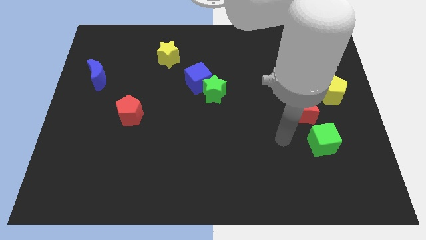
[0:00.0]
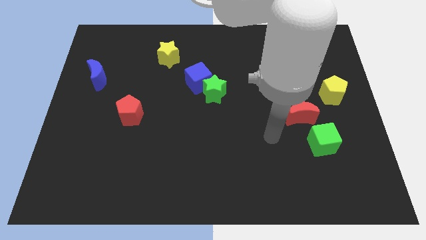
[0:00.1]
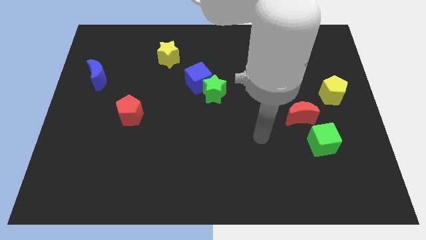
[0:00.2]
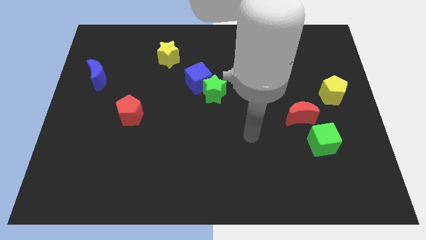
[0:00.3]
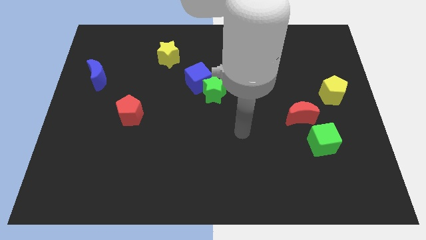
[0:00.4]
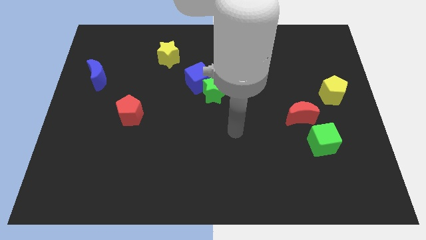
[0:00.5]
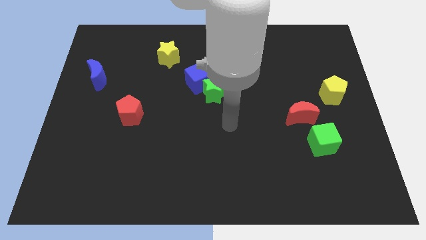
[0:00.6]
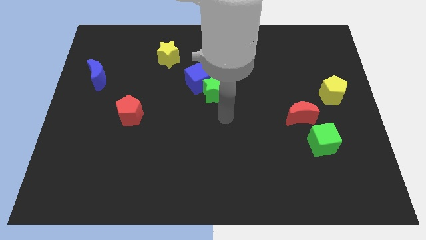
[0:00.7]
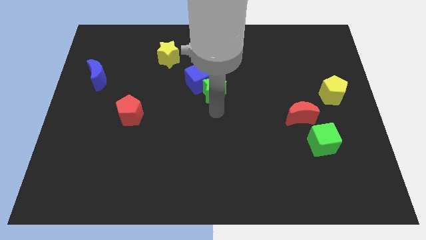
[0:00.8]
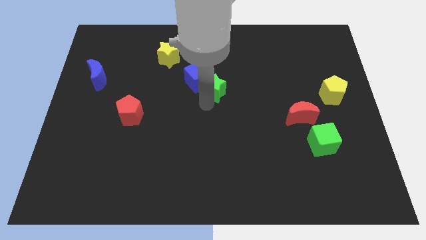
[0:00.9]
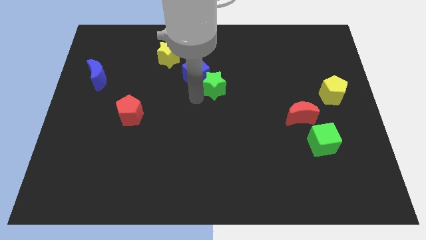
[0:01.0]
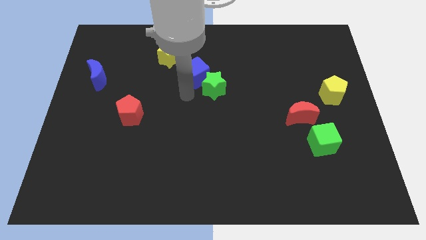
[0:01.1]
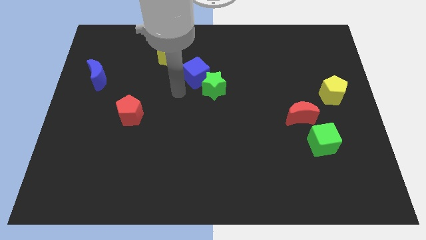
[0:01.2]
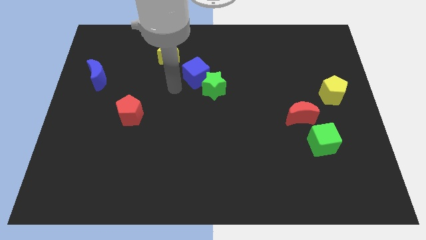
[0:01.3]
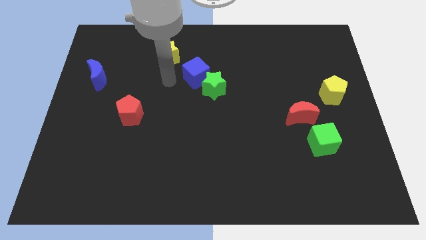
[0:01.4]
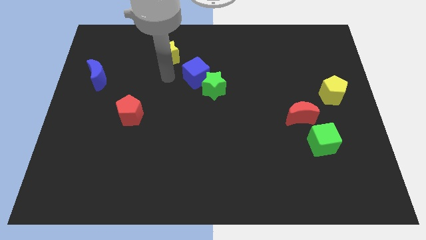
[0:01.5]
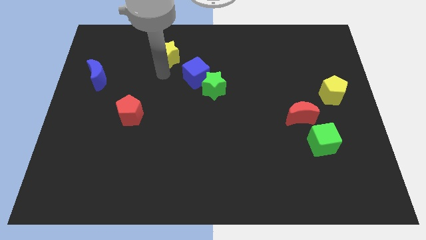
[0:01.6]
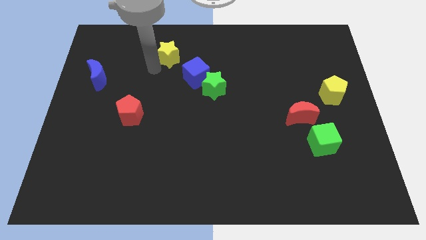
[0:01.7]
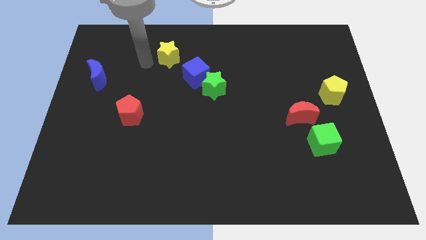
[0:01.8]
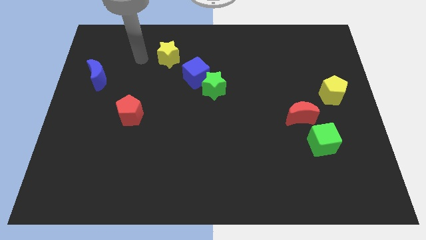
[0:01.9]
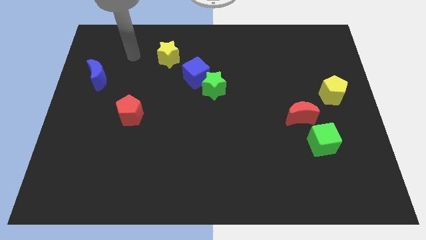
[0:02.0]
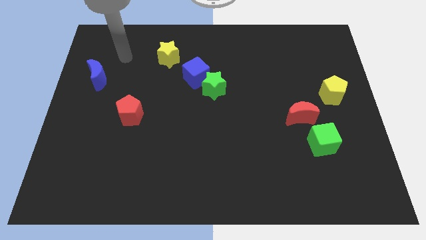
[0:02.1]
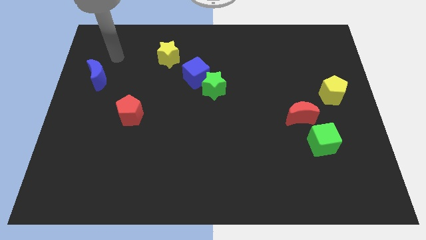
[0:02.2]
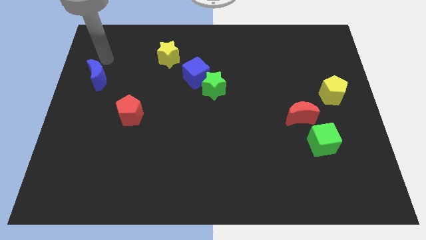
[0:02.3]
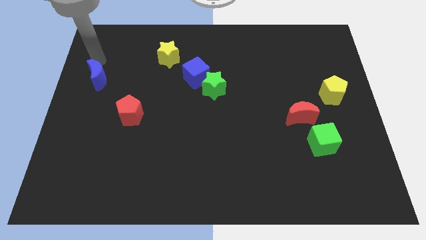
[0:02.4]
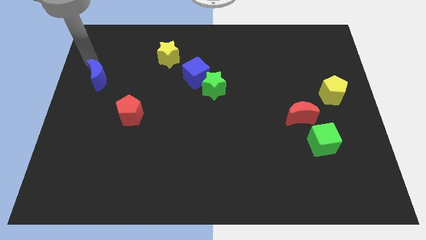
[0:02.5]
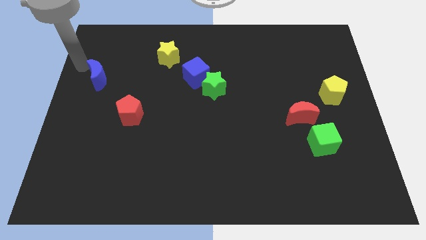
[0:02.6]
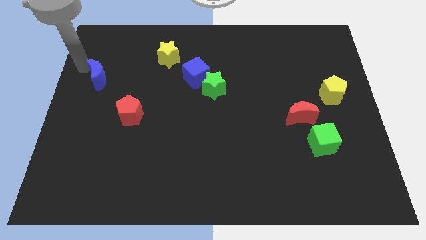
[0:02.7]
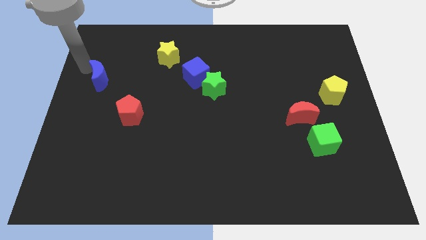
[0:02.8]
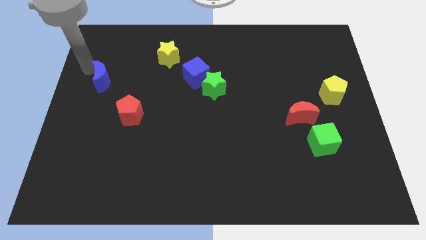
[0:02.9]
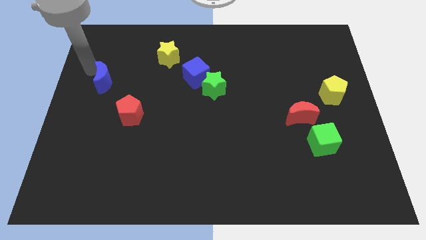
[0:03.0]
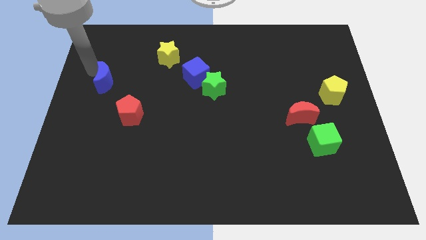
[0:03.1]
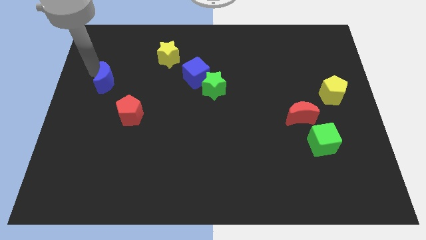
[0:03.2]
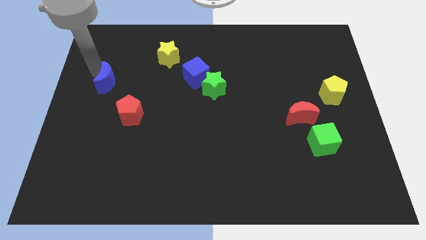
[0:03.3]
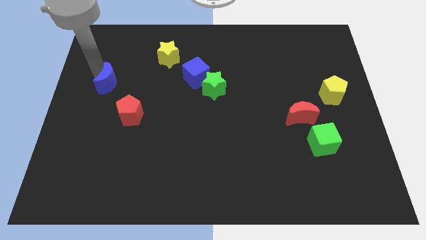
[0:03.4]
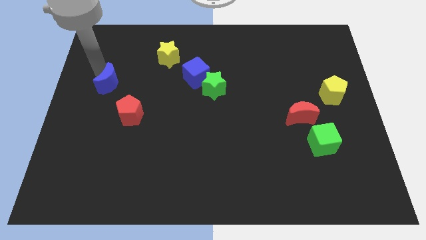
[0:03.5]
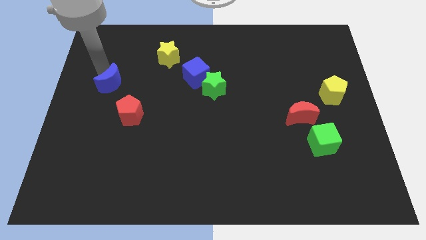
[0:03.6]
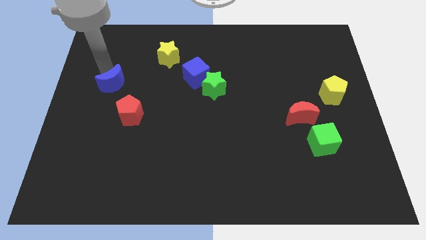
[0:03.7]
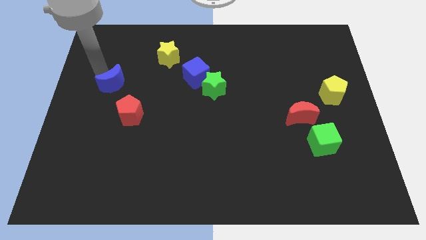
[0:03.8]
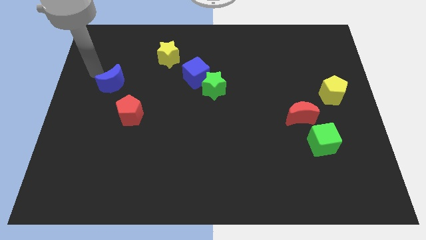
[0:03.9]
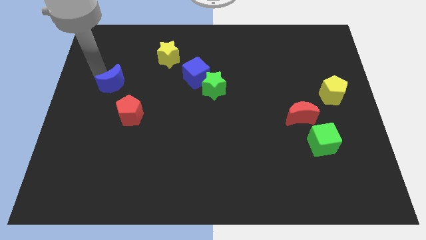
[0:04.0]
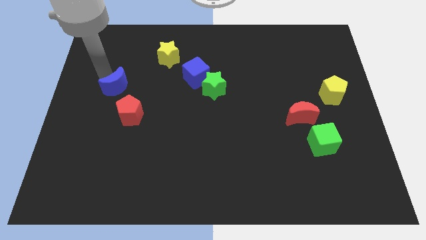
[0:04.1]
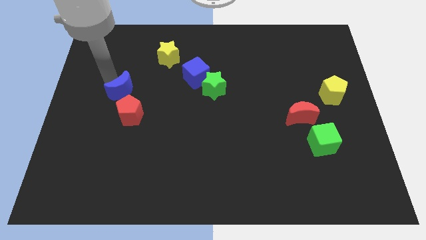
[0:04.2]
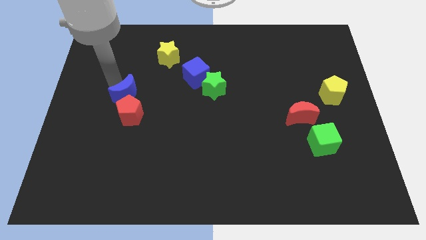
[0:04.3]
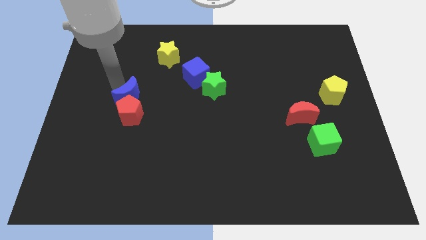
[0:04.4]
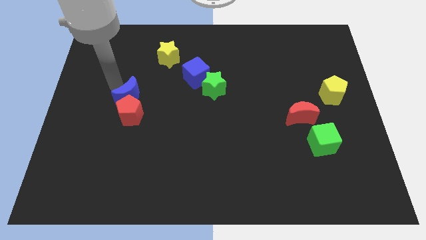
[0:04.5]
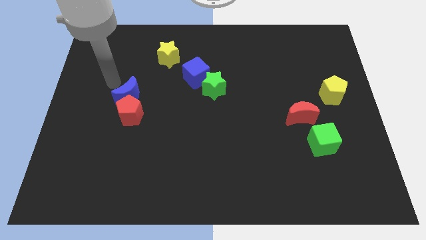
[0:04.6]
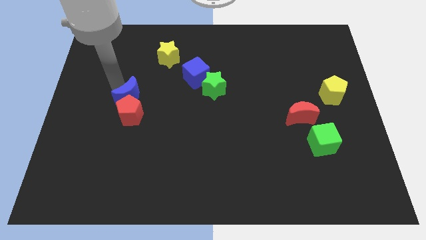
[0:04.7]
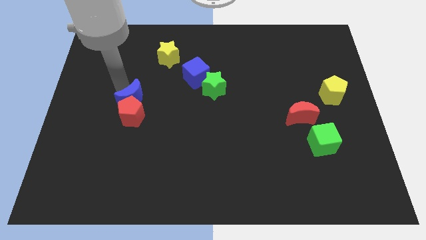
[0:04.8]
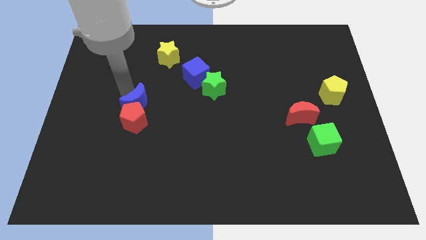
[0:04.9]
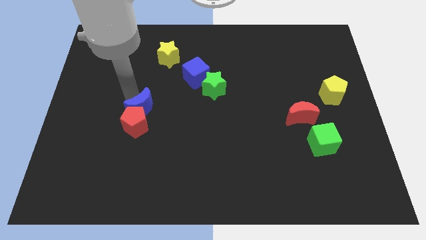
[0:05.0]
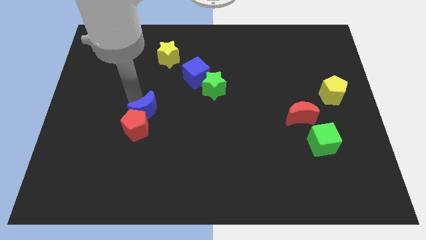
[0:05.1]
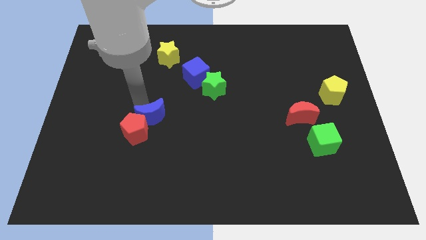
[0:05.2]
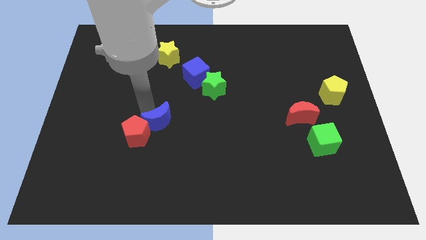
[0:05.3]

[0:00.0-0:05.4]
slide the blue moon diagonally downwards and right

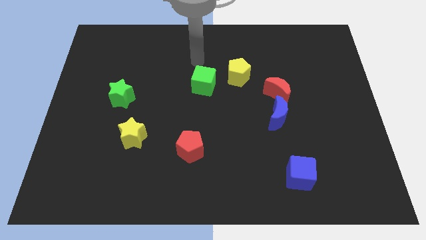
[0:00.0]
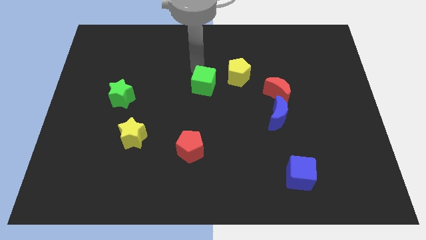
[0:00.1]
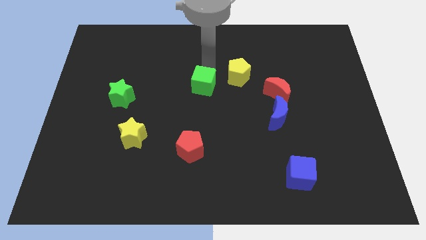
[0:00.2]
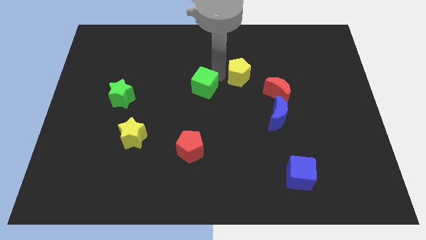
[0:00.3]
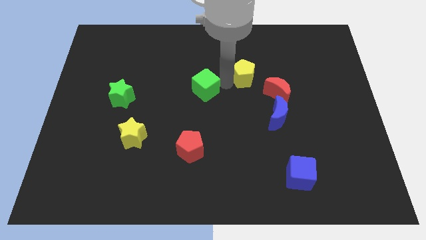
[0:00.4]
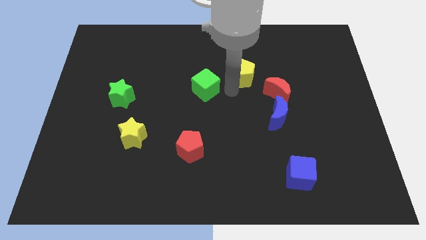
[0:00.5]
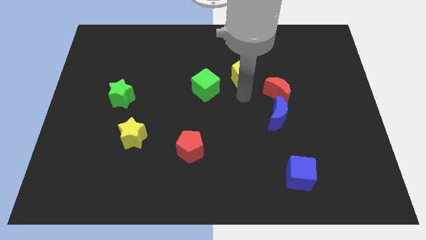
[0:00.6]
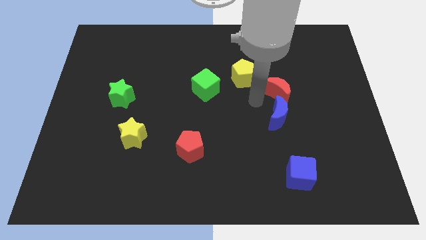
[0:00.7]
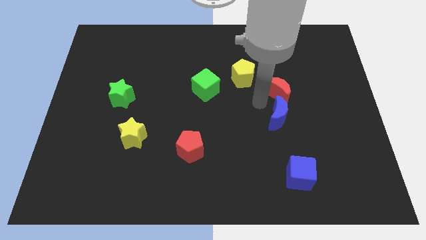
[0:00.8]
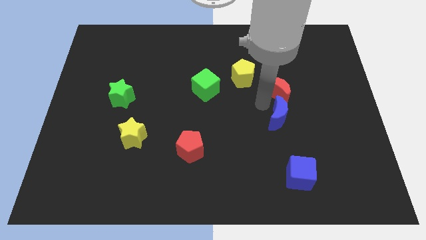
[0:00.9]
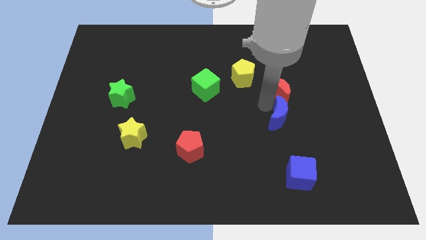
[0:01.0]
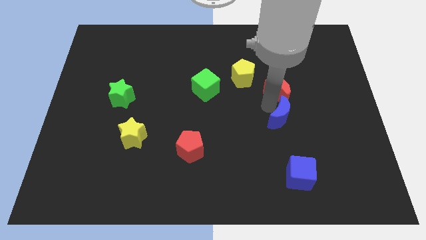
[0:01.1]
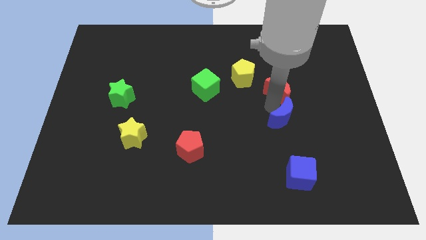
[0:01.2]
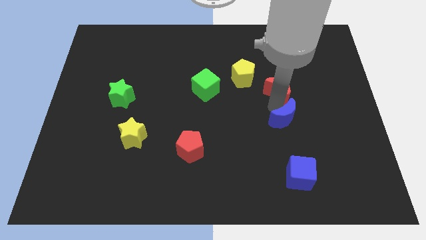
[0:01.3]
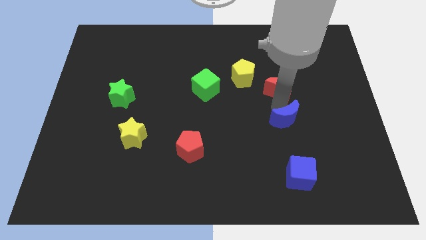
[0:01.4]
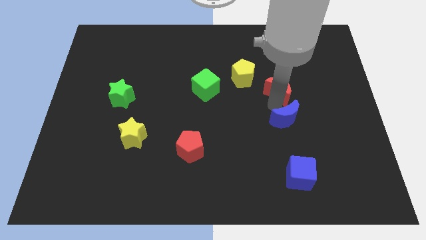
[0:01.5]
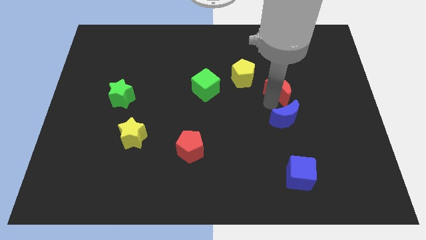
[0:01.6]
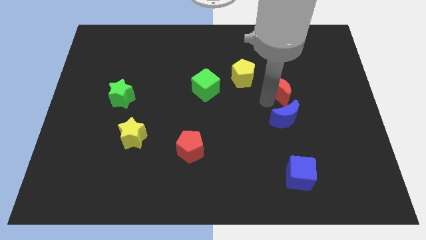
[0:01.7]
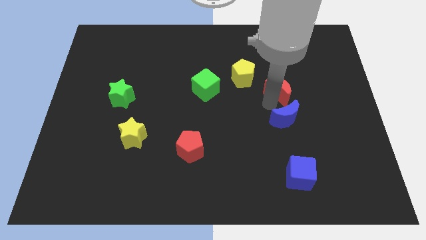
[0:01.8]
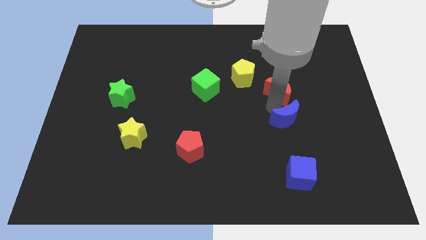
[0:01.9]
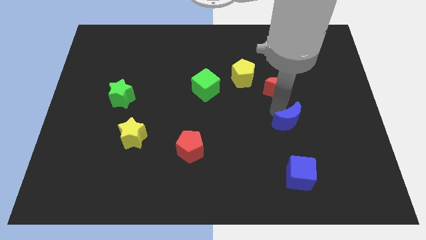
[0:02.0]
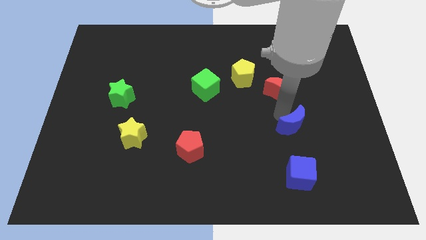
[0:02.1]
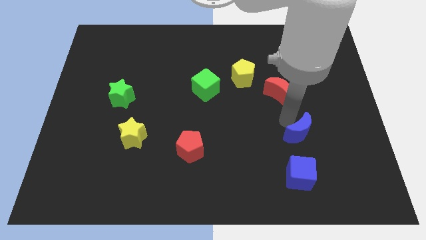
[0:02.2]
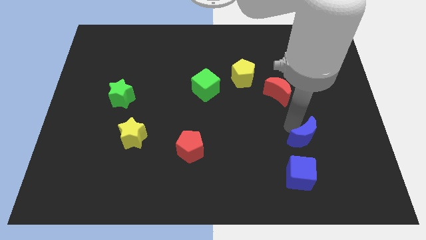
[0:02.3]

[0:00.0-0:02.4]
slide the blue moon slightly down and to the right
